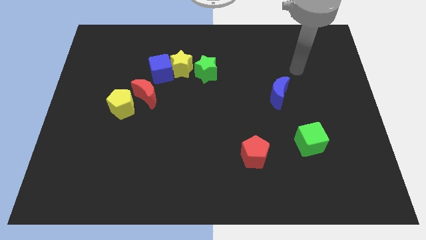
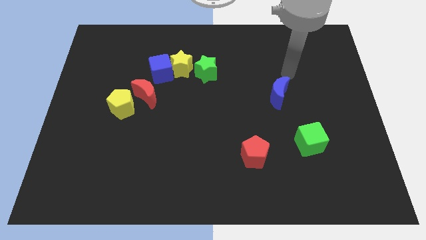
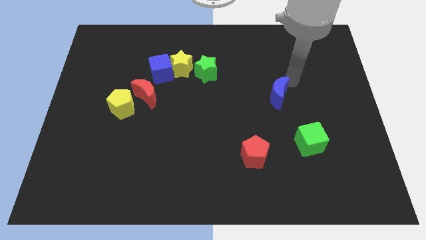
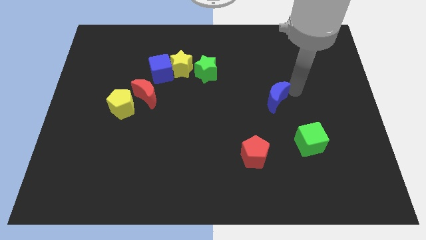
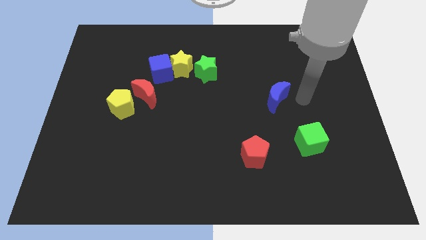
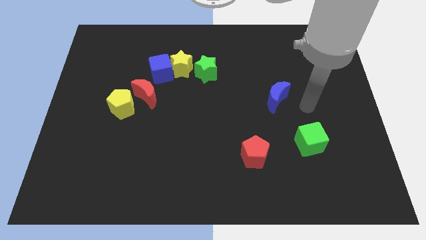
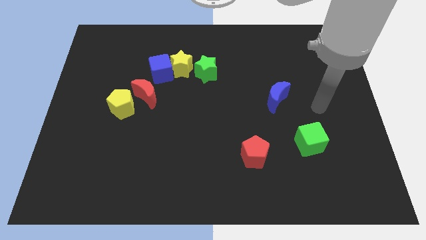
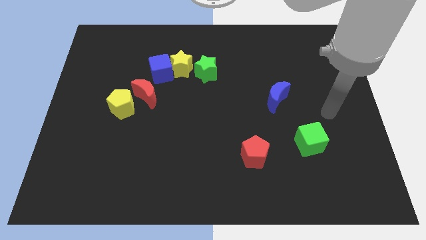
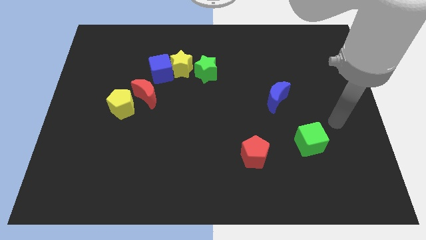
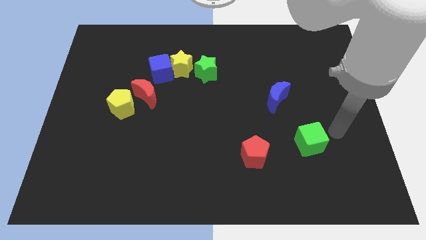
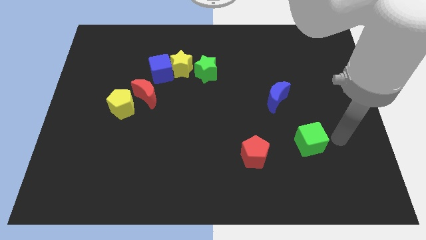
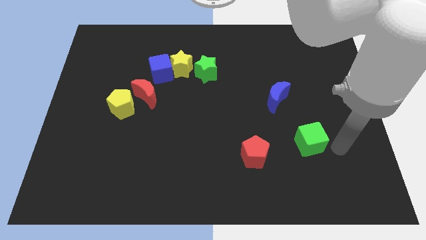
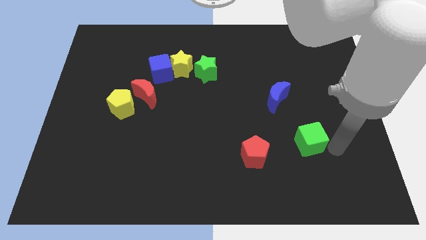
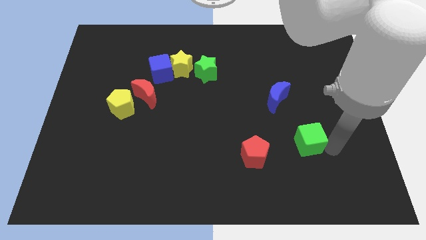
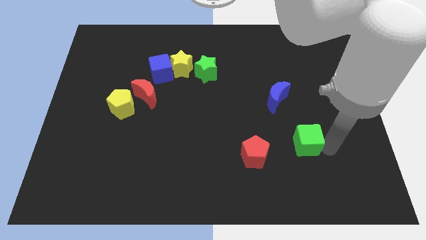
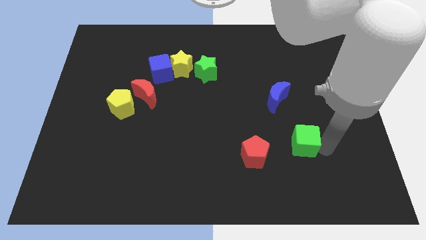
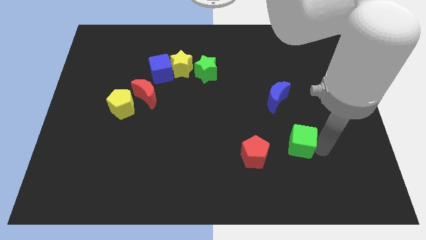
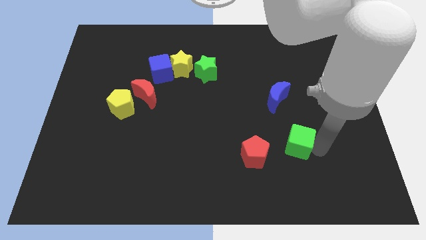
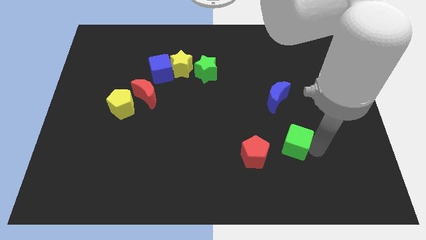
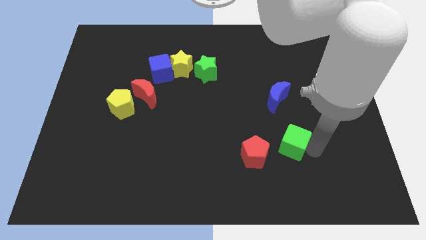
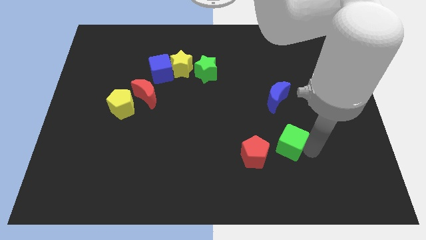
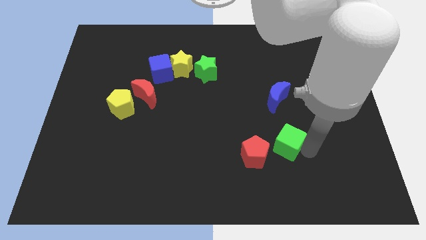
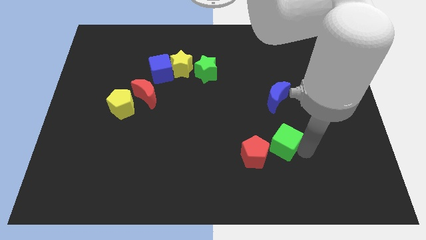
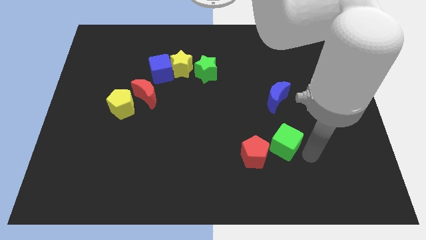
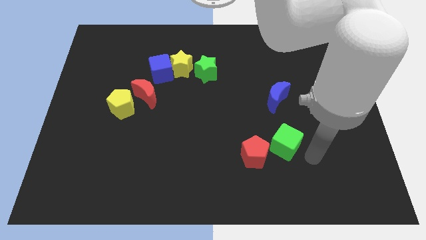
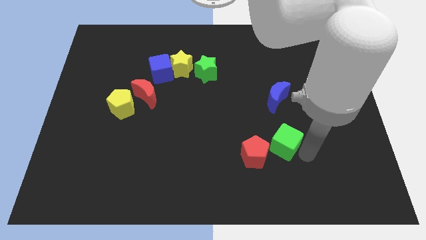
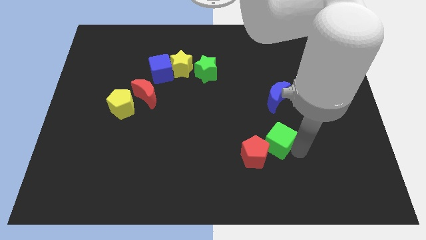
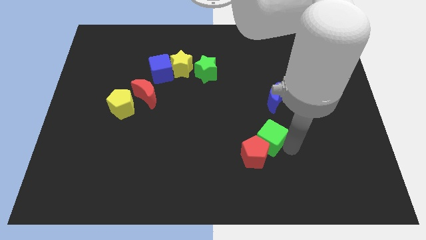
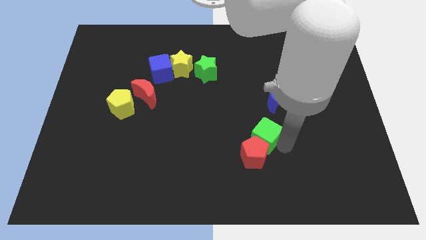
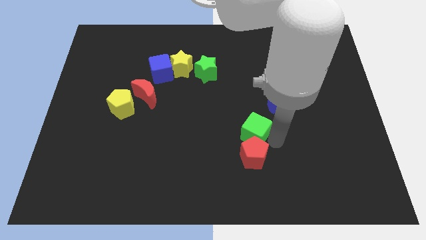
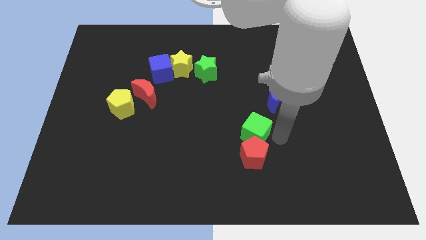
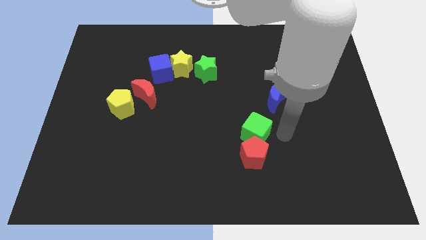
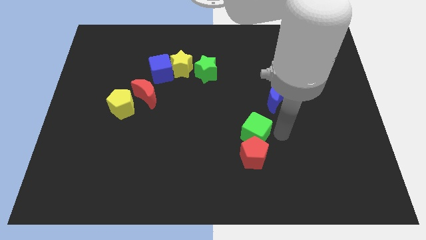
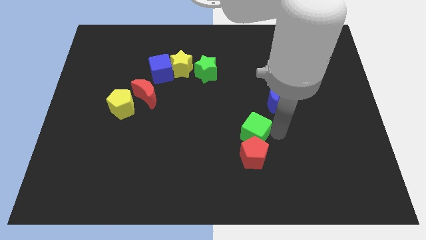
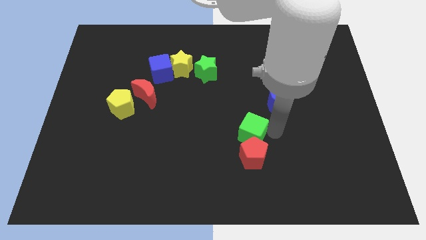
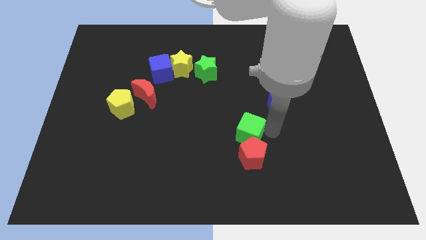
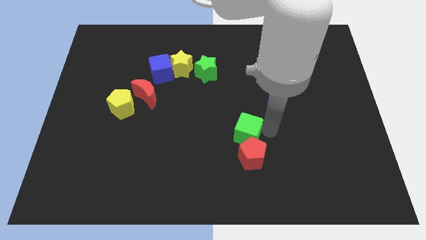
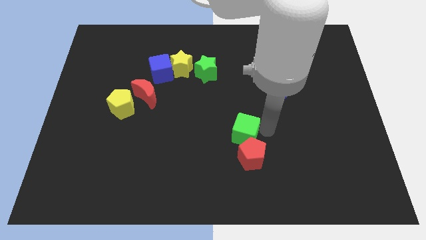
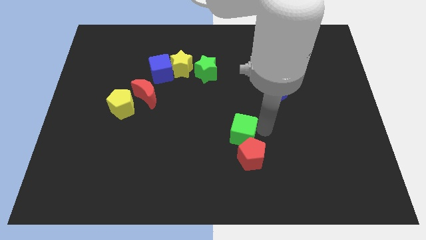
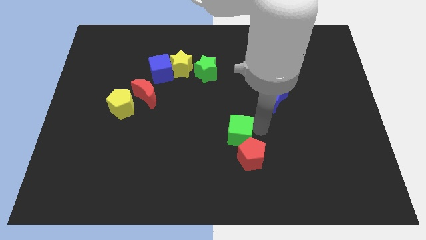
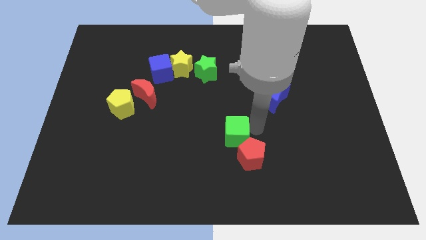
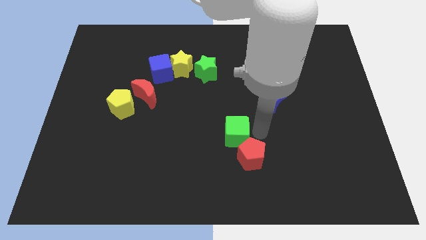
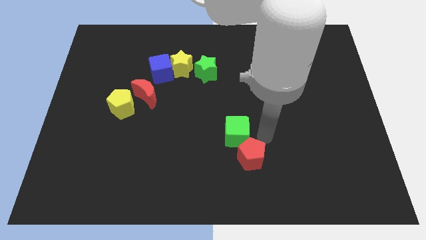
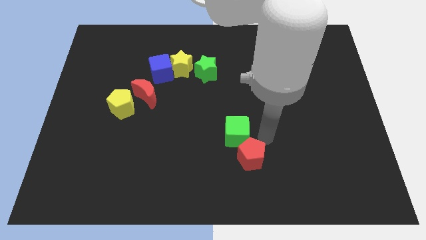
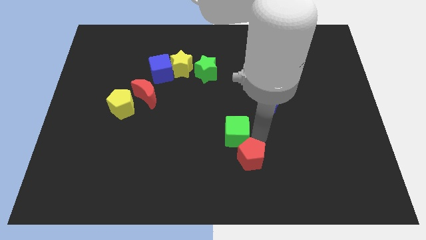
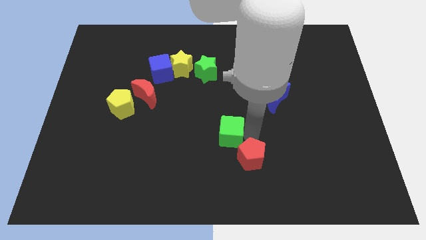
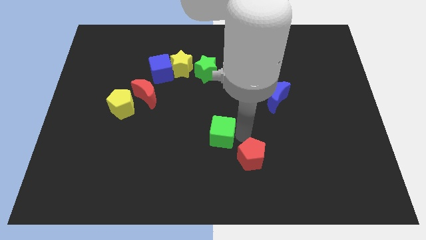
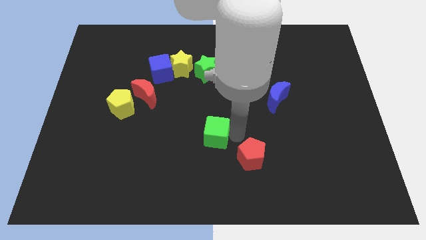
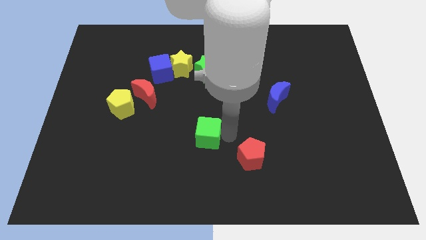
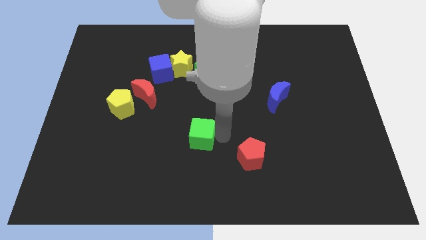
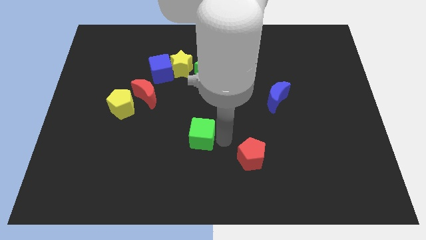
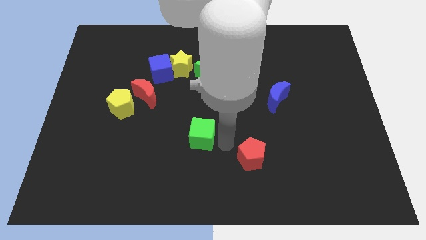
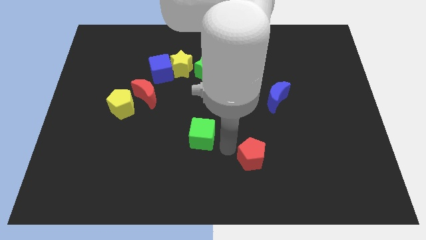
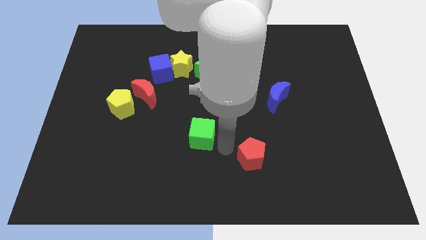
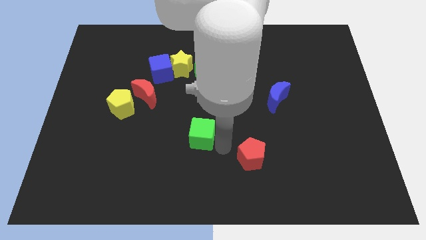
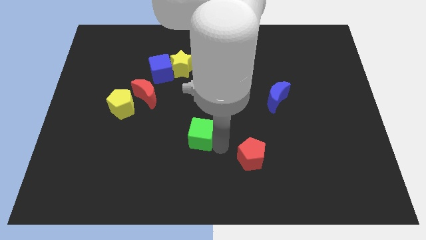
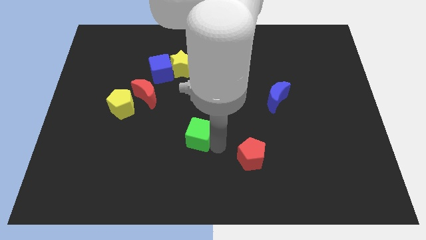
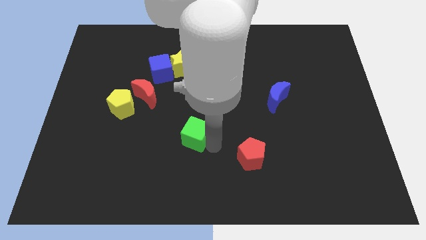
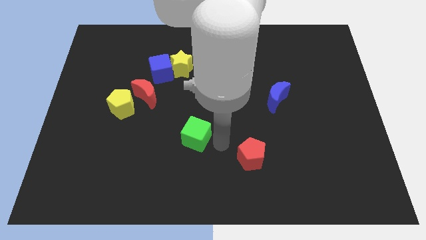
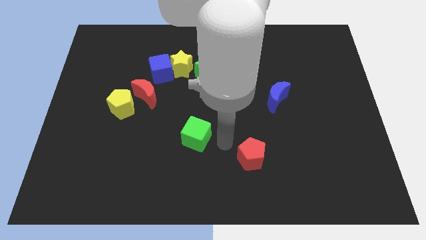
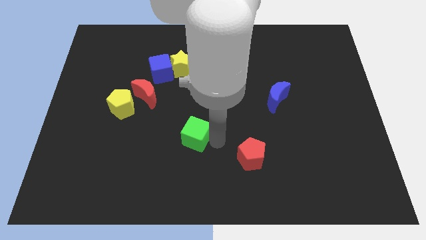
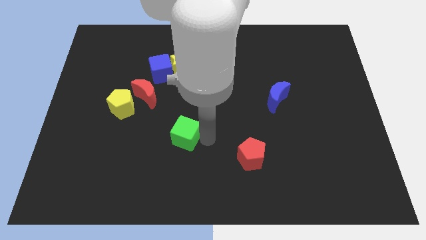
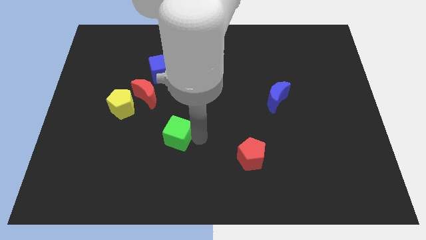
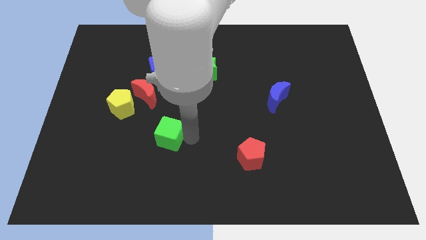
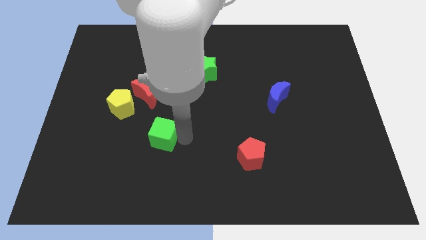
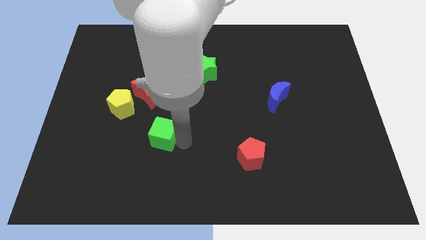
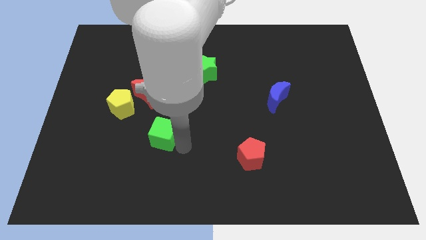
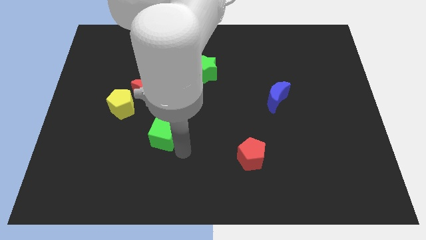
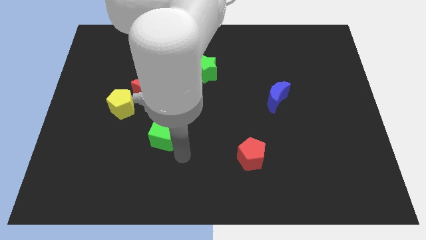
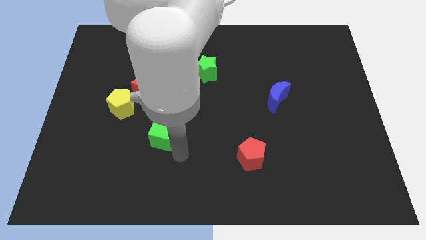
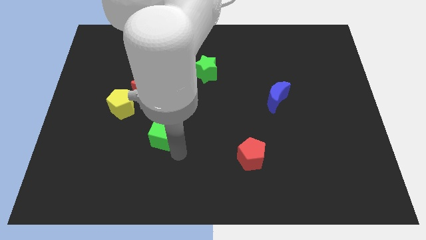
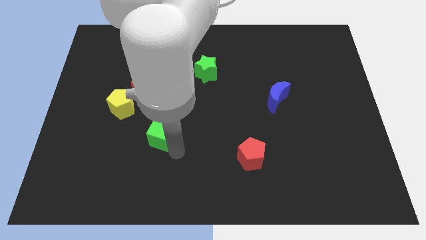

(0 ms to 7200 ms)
push the green cube to the bottom side of the red moon
